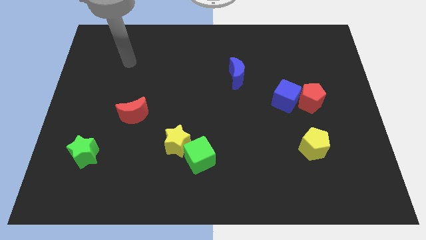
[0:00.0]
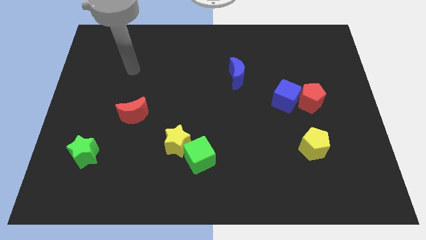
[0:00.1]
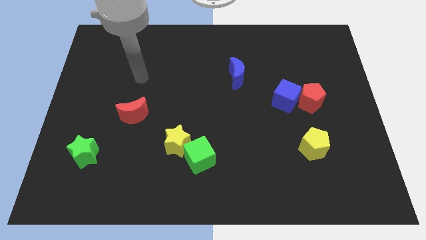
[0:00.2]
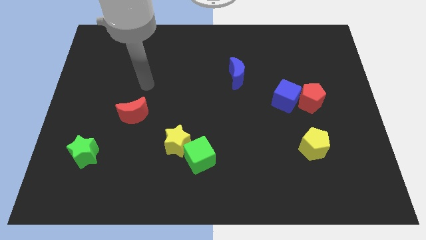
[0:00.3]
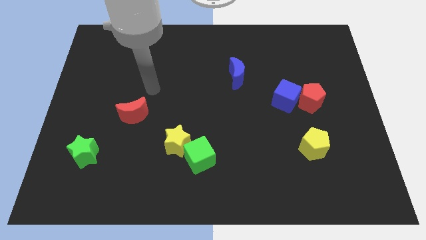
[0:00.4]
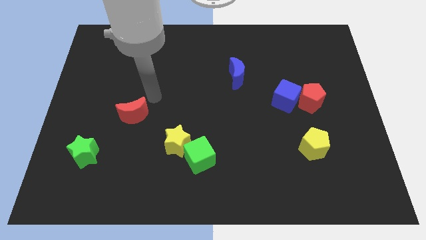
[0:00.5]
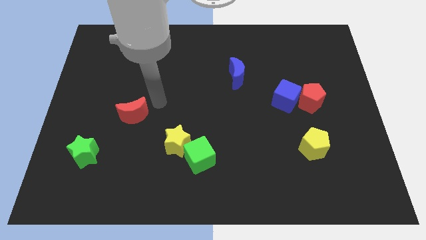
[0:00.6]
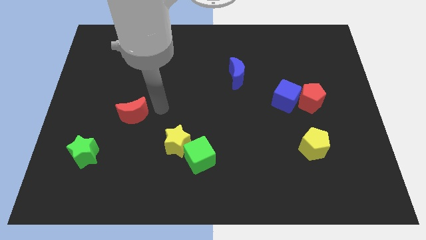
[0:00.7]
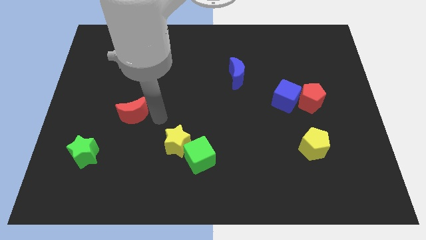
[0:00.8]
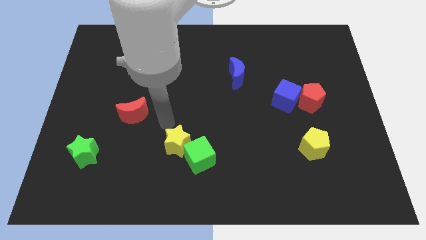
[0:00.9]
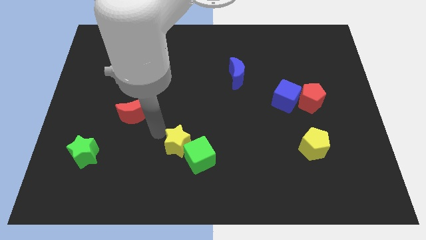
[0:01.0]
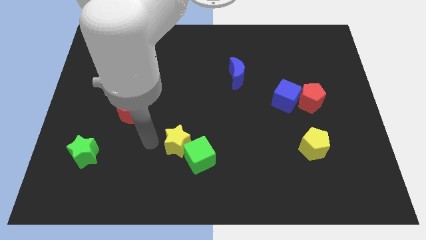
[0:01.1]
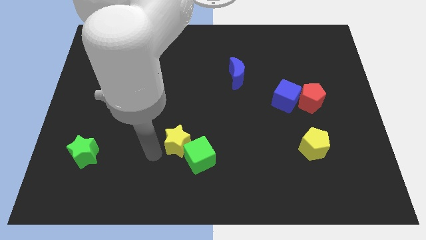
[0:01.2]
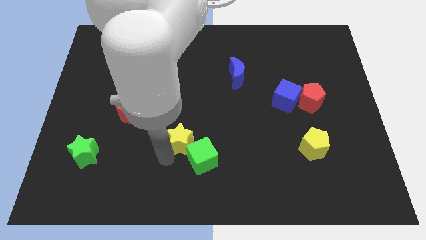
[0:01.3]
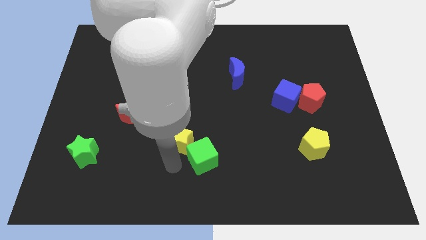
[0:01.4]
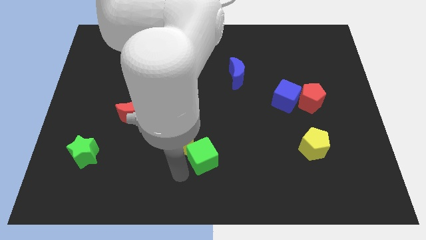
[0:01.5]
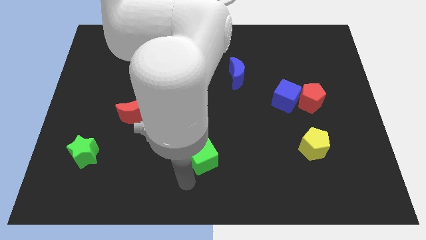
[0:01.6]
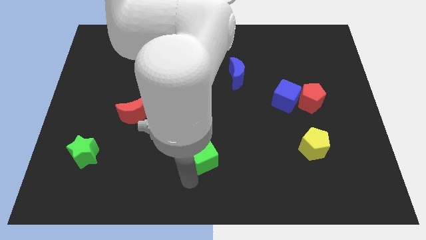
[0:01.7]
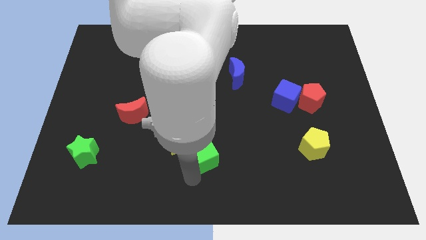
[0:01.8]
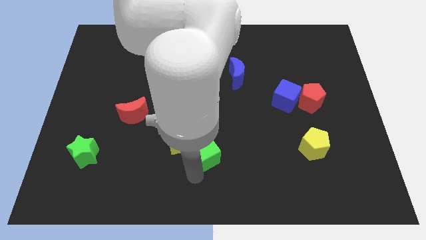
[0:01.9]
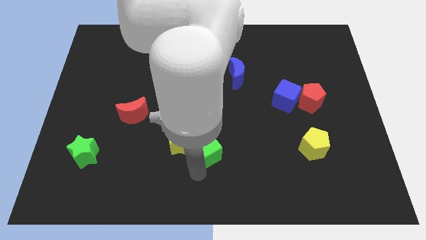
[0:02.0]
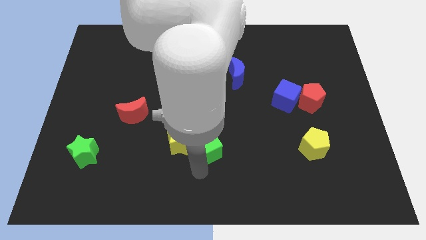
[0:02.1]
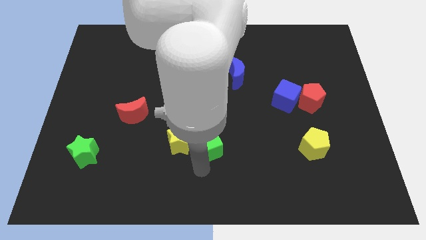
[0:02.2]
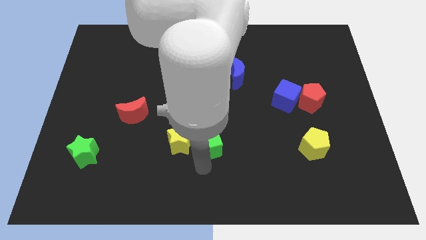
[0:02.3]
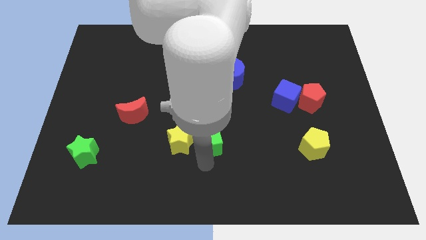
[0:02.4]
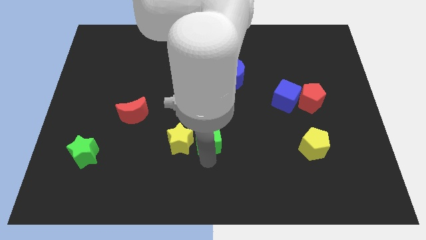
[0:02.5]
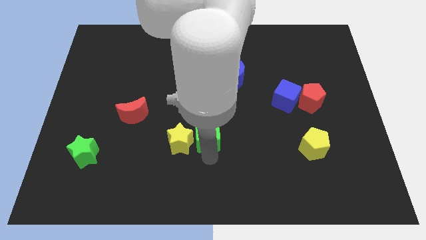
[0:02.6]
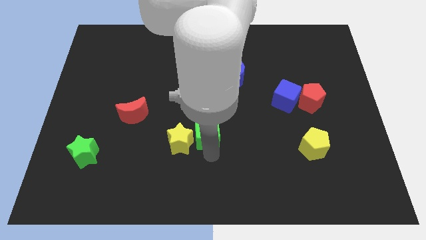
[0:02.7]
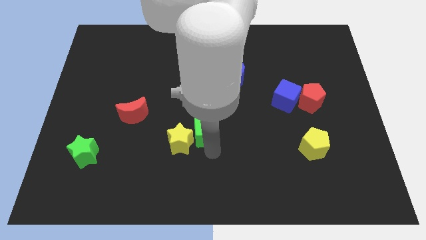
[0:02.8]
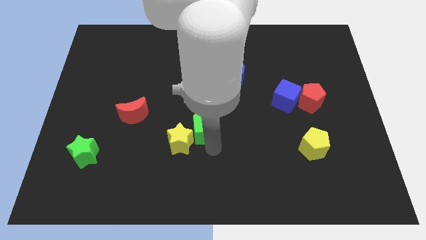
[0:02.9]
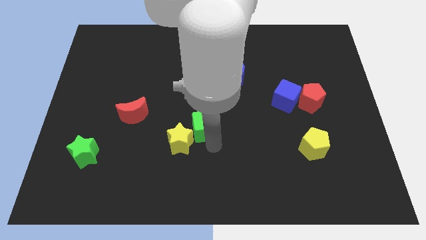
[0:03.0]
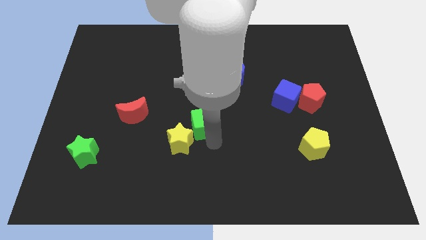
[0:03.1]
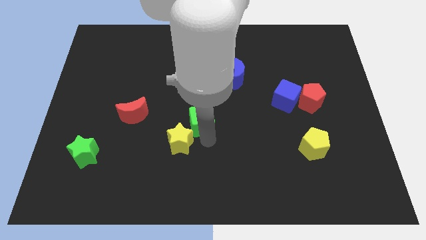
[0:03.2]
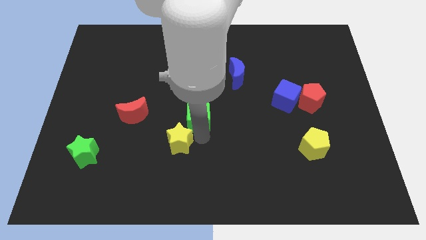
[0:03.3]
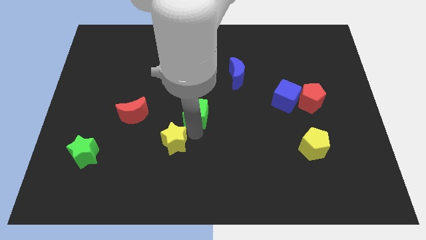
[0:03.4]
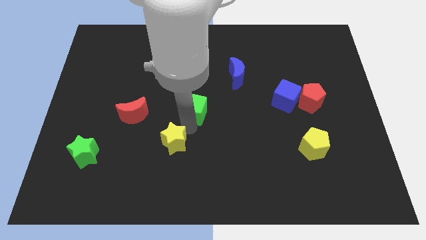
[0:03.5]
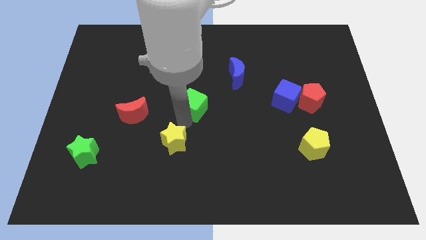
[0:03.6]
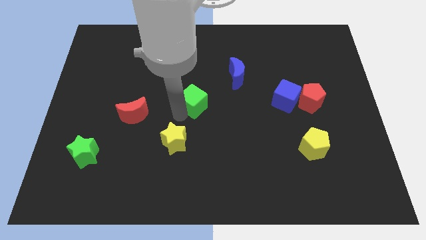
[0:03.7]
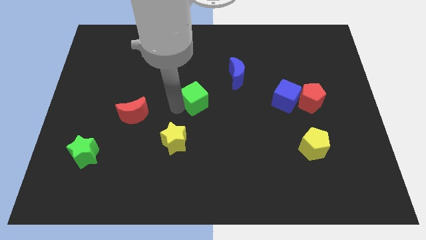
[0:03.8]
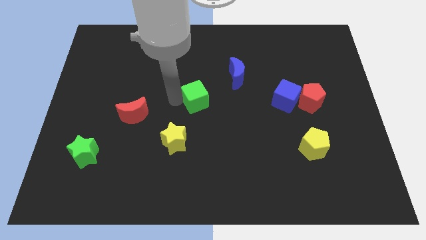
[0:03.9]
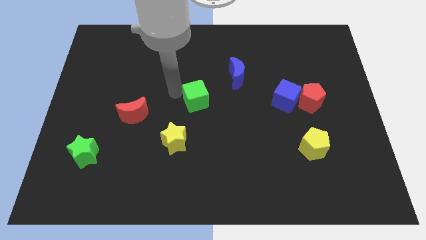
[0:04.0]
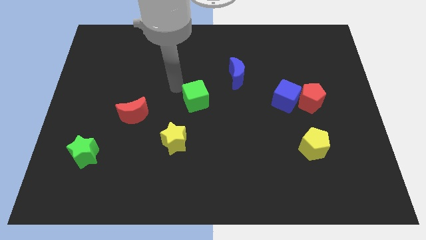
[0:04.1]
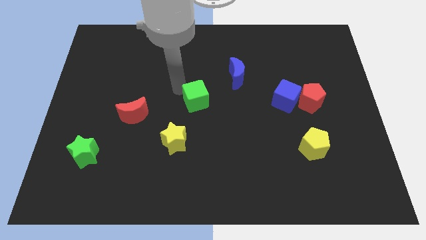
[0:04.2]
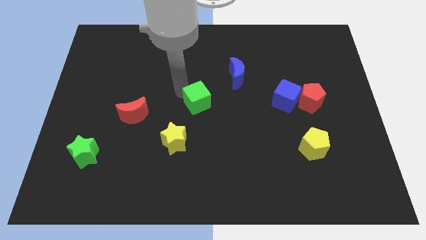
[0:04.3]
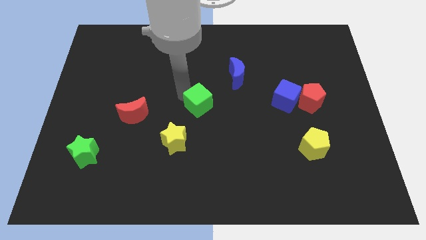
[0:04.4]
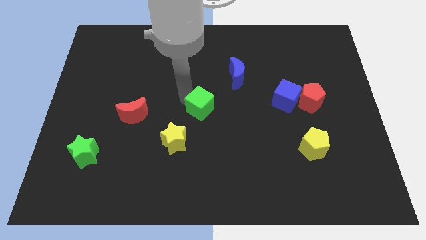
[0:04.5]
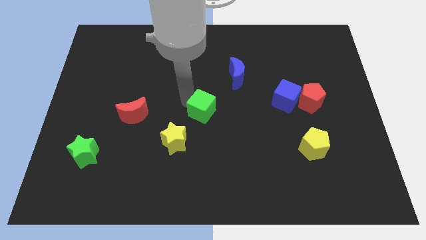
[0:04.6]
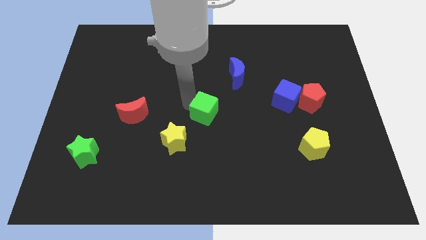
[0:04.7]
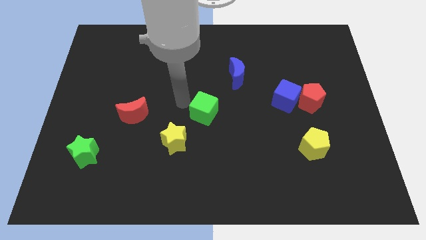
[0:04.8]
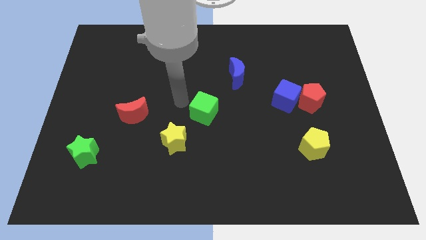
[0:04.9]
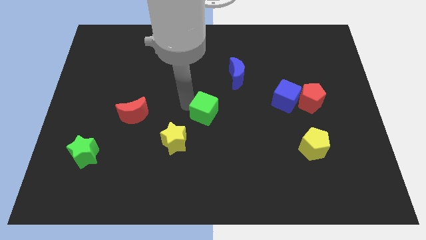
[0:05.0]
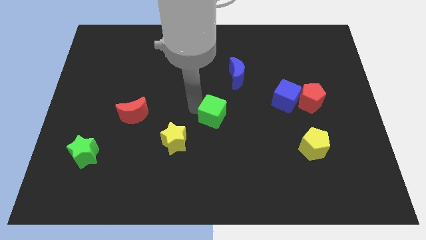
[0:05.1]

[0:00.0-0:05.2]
slide the green cube upwards and right diagonally slightly

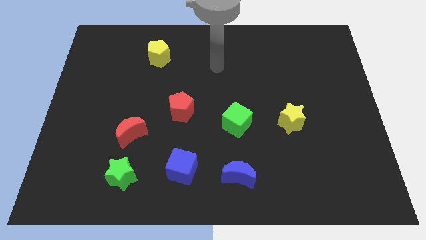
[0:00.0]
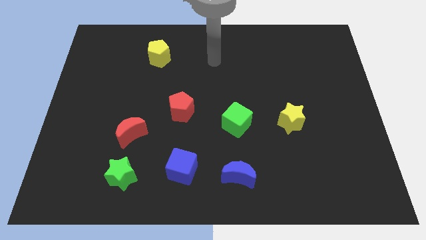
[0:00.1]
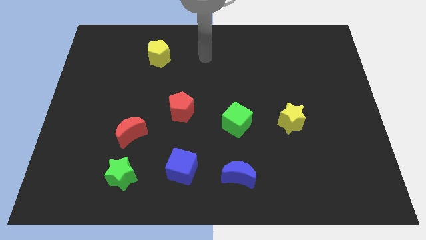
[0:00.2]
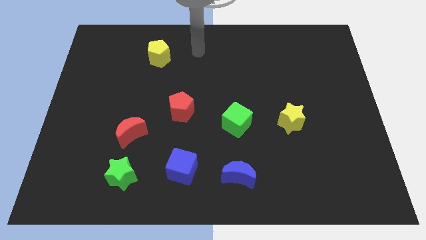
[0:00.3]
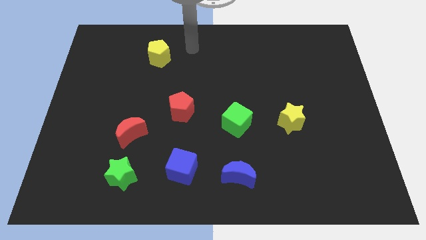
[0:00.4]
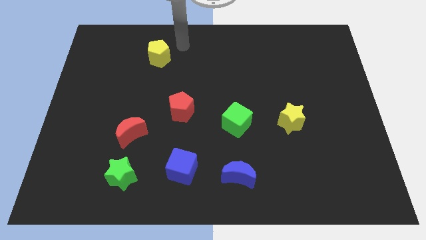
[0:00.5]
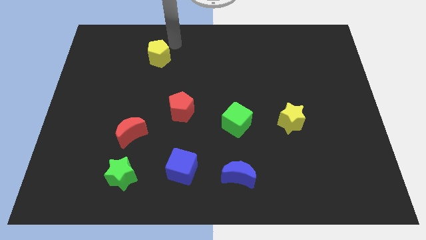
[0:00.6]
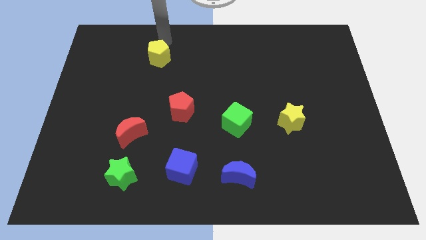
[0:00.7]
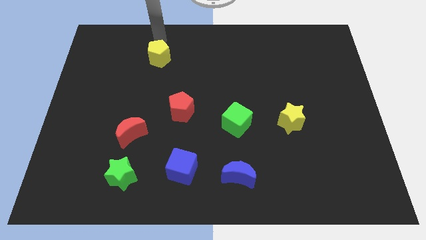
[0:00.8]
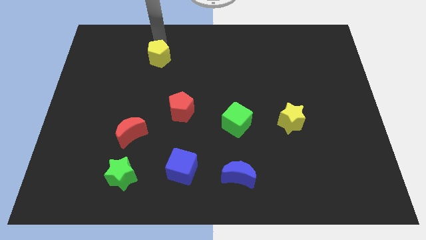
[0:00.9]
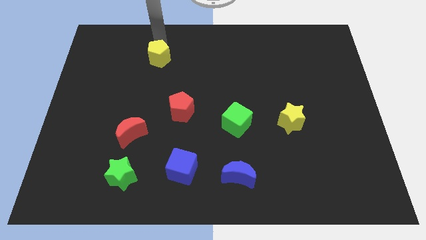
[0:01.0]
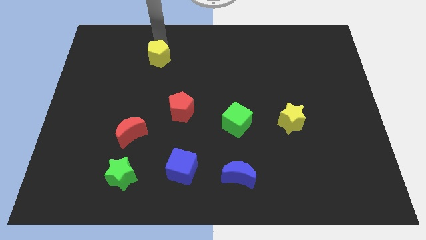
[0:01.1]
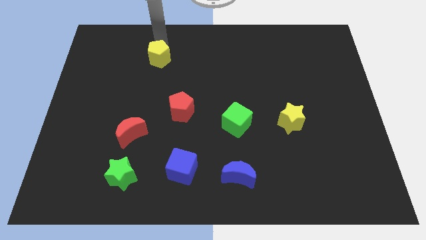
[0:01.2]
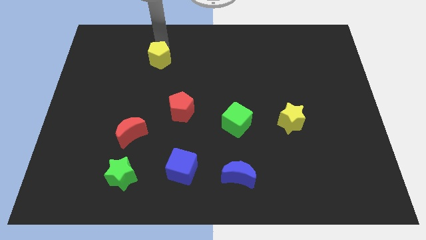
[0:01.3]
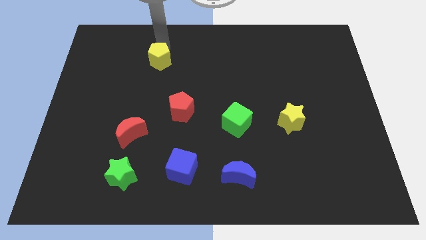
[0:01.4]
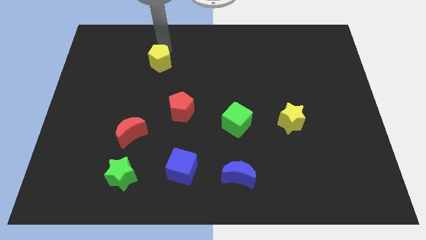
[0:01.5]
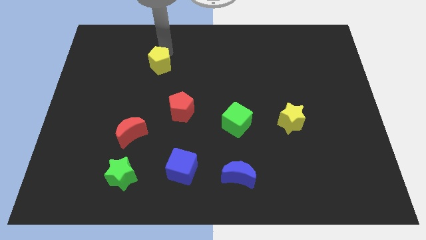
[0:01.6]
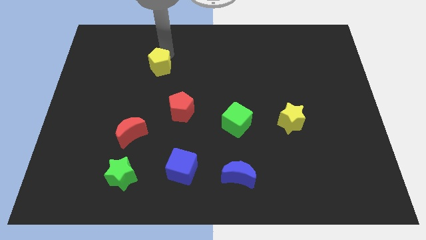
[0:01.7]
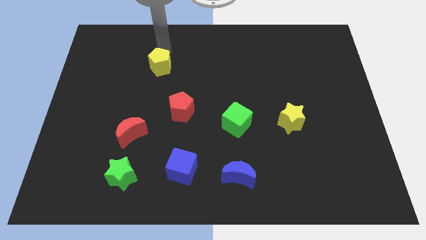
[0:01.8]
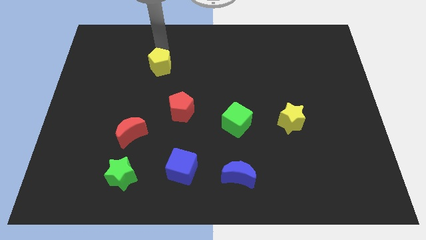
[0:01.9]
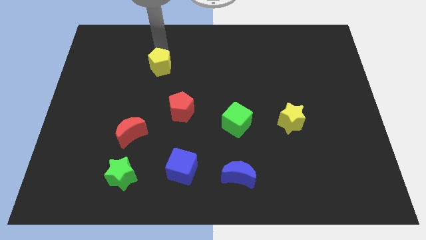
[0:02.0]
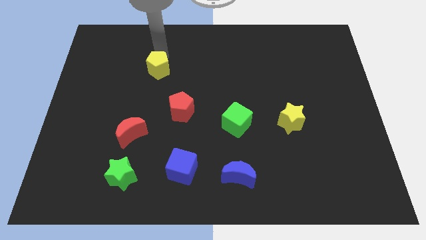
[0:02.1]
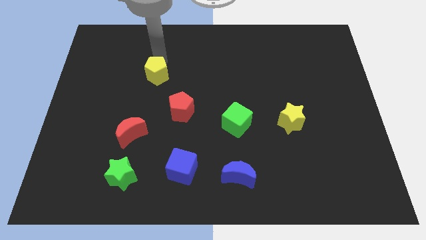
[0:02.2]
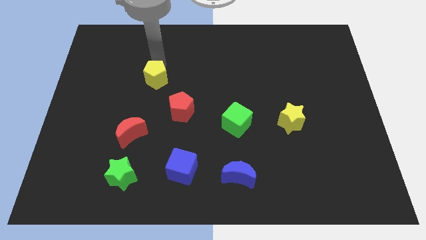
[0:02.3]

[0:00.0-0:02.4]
slide the yellow pentagon a bit down

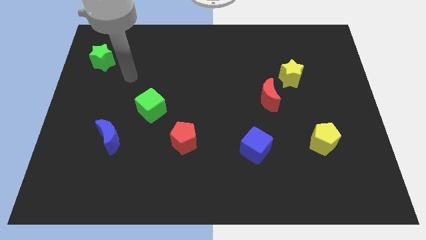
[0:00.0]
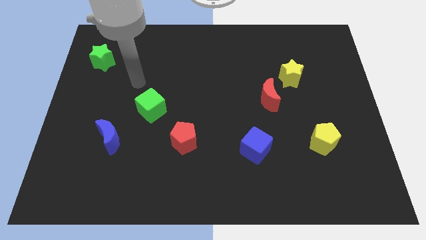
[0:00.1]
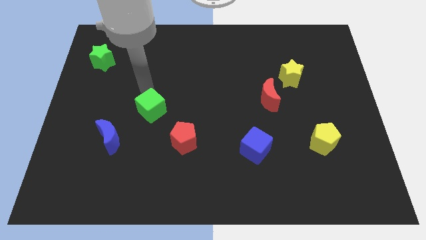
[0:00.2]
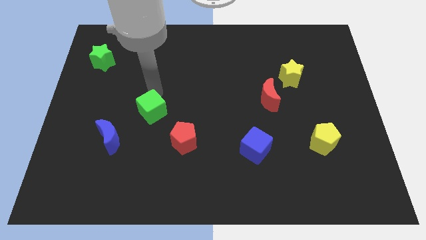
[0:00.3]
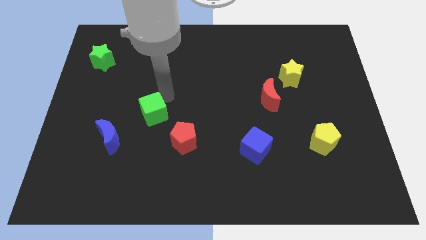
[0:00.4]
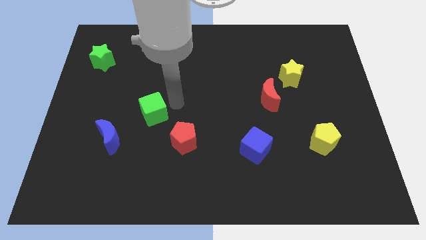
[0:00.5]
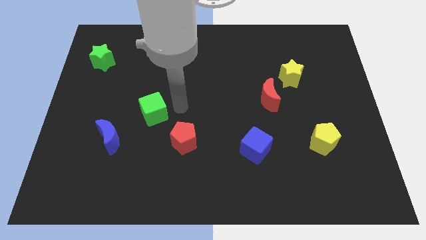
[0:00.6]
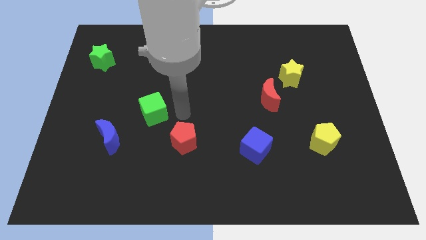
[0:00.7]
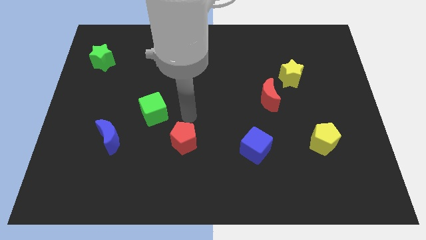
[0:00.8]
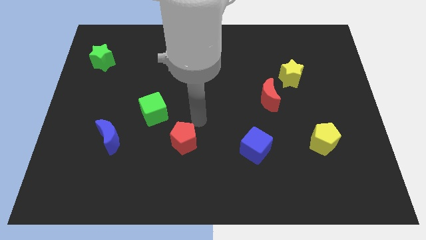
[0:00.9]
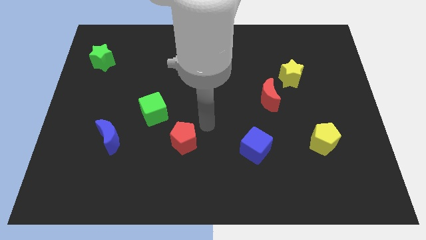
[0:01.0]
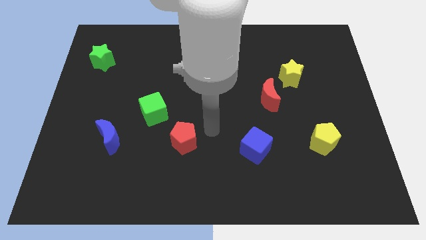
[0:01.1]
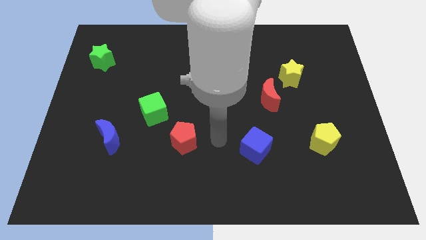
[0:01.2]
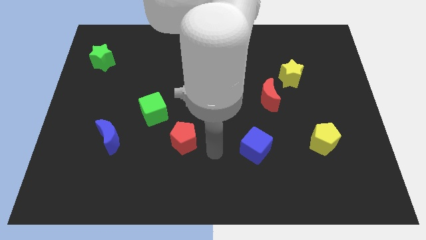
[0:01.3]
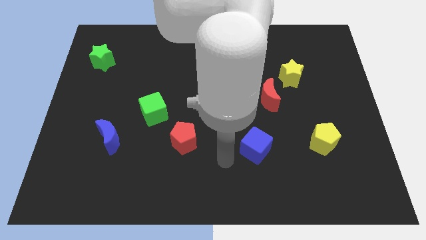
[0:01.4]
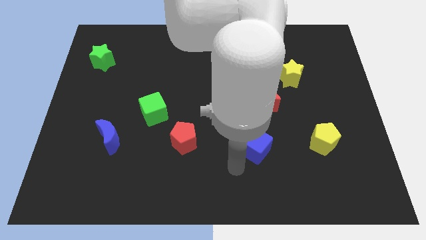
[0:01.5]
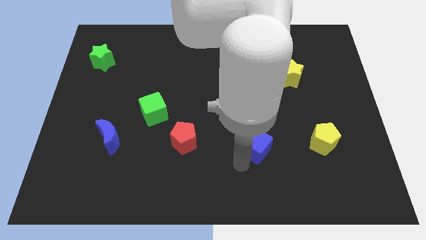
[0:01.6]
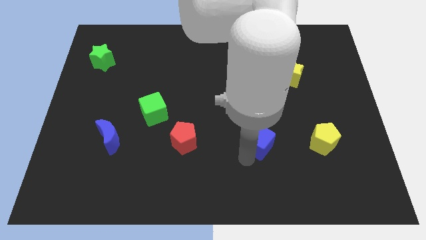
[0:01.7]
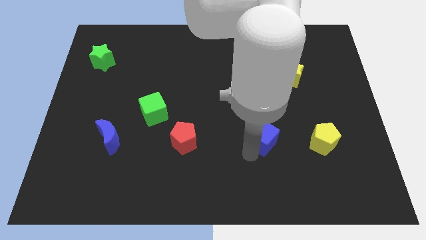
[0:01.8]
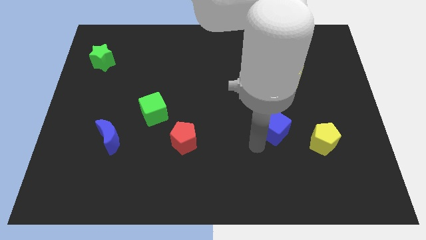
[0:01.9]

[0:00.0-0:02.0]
push the blue cube up and to the right a little bit
